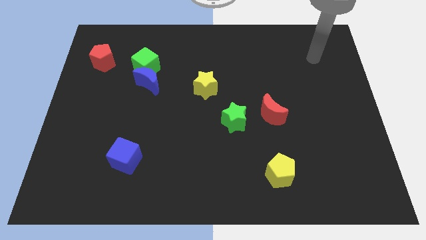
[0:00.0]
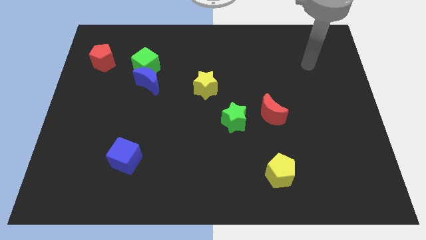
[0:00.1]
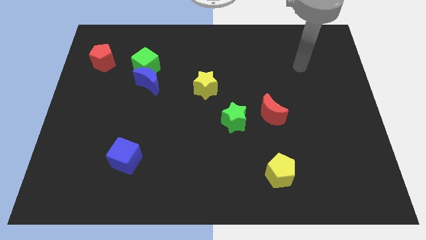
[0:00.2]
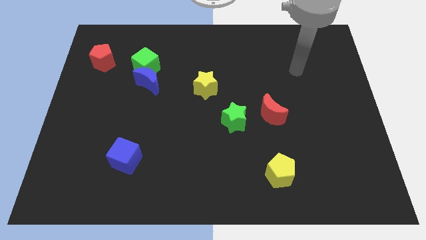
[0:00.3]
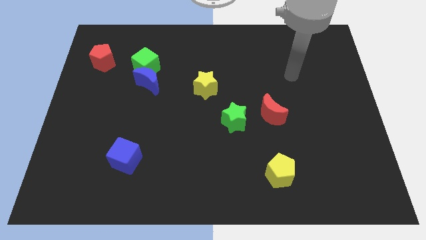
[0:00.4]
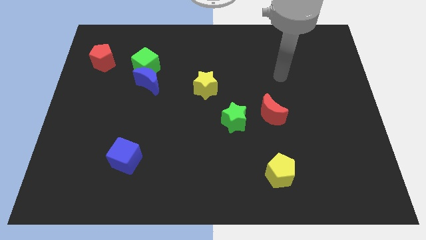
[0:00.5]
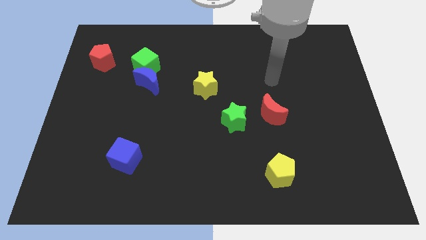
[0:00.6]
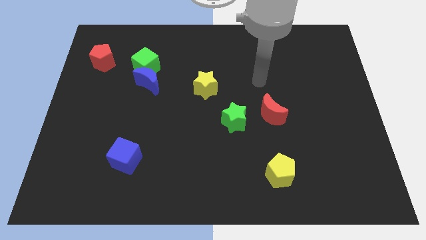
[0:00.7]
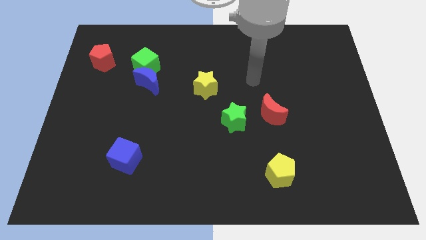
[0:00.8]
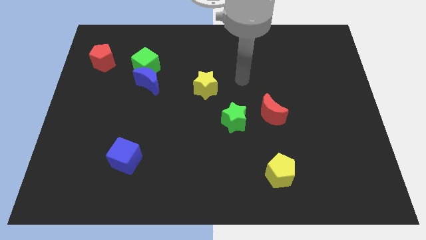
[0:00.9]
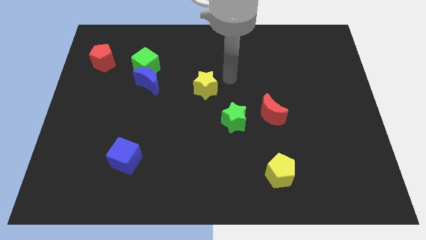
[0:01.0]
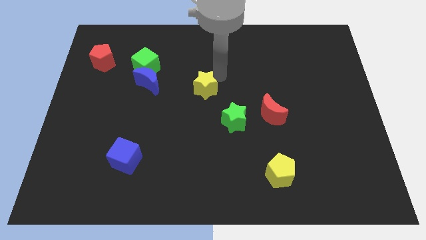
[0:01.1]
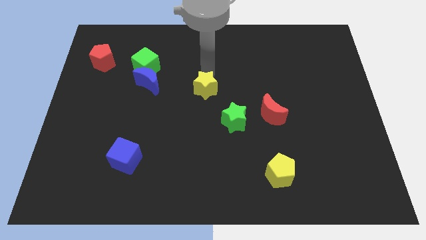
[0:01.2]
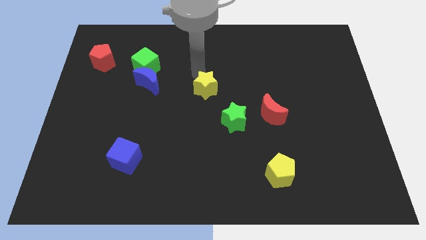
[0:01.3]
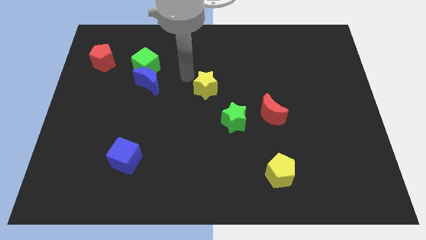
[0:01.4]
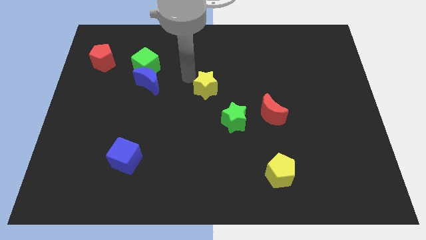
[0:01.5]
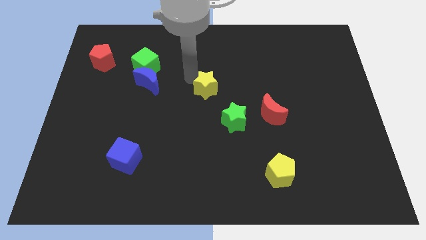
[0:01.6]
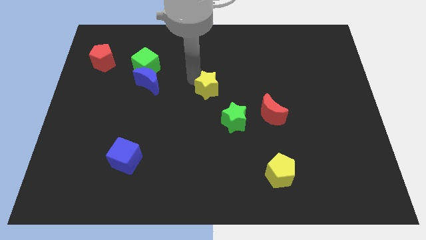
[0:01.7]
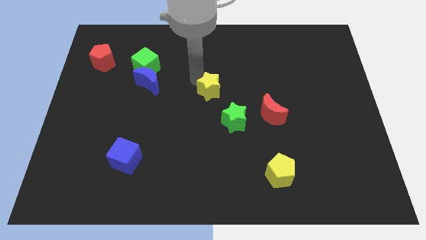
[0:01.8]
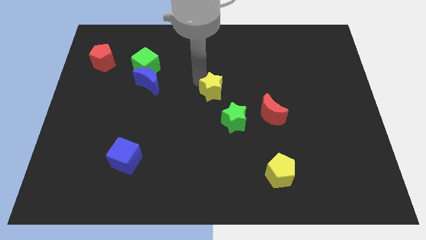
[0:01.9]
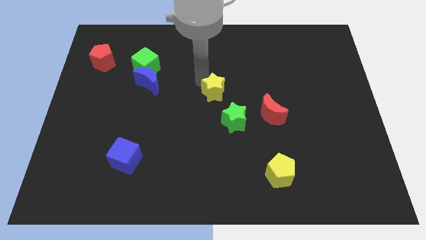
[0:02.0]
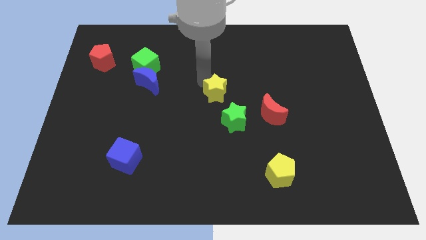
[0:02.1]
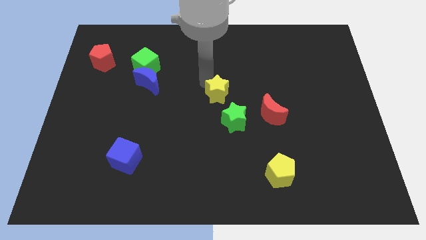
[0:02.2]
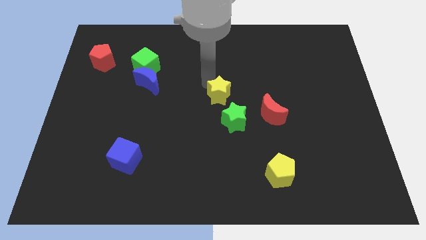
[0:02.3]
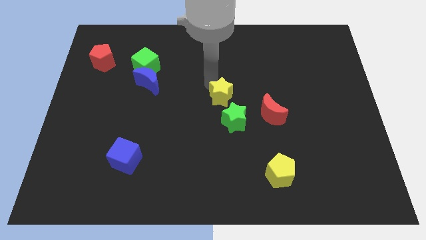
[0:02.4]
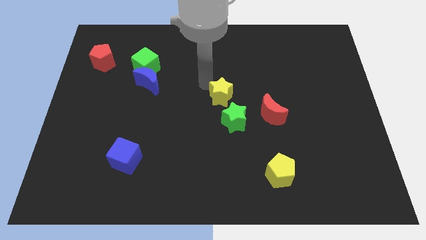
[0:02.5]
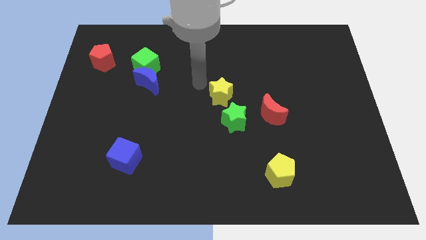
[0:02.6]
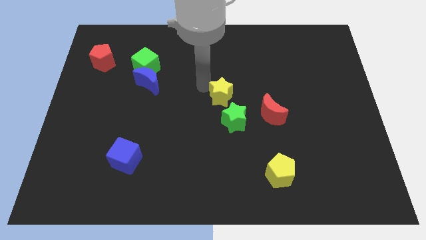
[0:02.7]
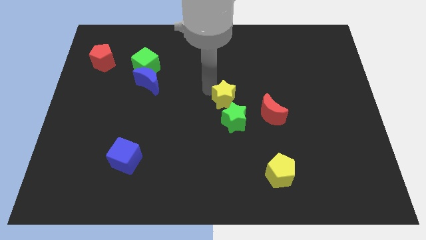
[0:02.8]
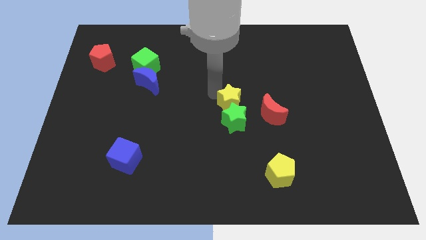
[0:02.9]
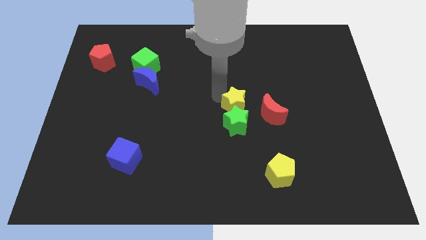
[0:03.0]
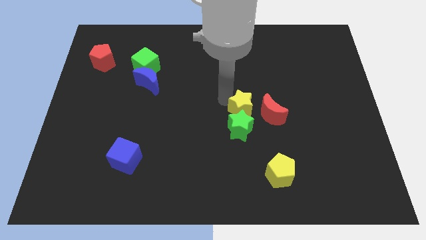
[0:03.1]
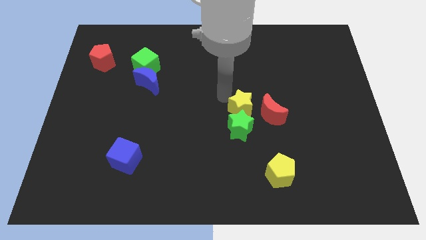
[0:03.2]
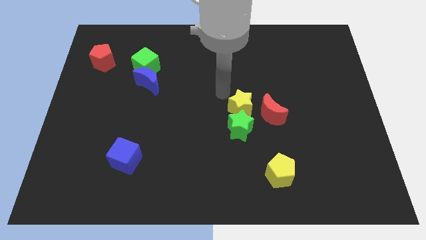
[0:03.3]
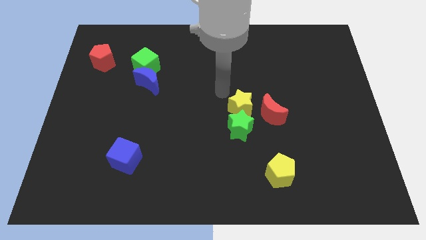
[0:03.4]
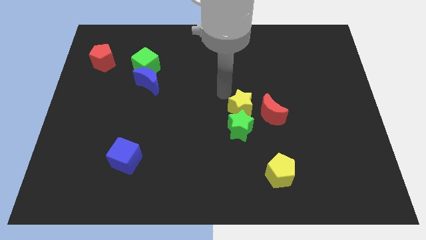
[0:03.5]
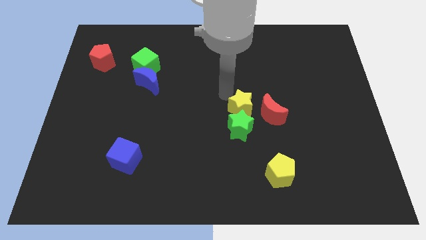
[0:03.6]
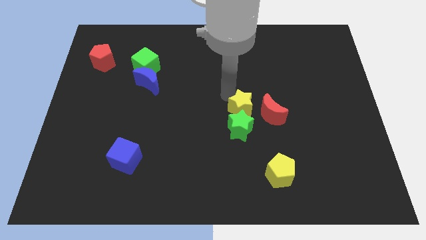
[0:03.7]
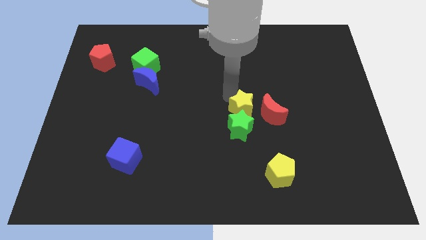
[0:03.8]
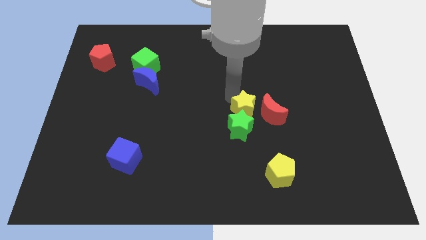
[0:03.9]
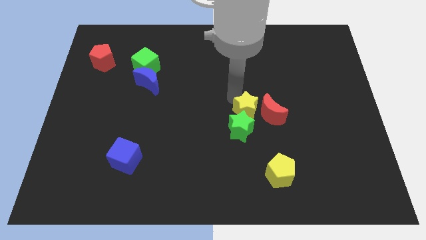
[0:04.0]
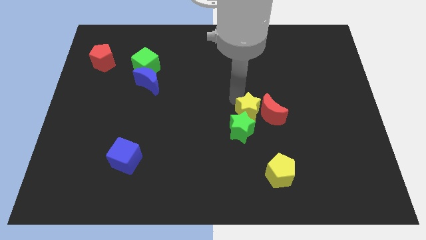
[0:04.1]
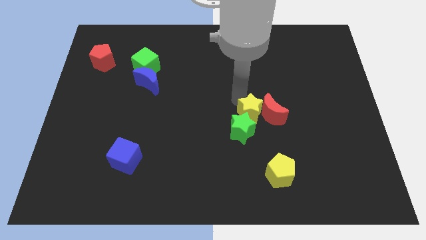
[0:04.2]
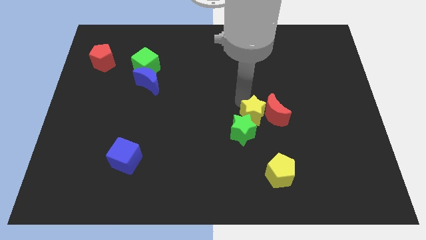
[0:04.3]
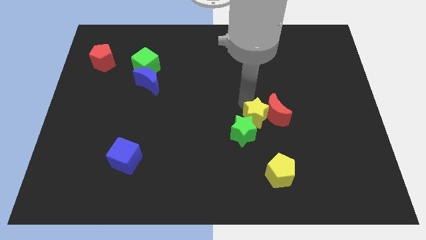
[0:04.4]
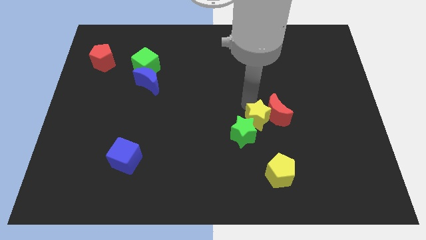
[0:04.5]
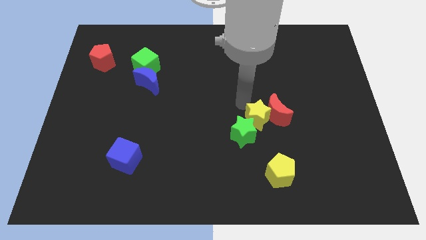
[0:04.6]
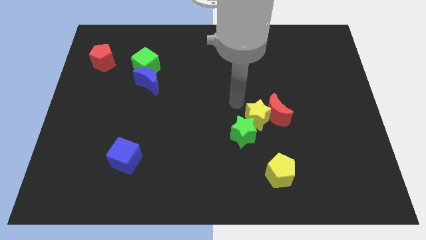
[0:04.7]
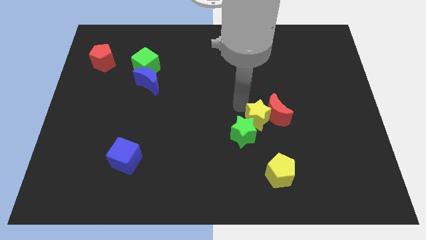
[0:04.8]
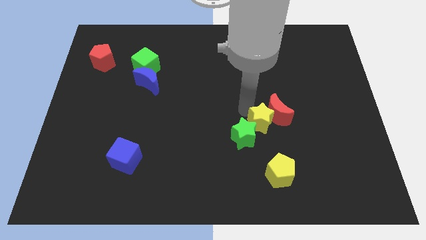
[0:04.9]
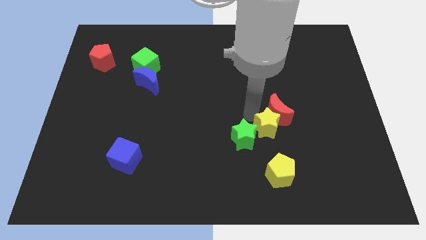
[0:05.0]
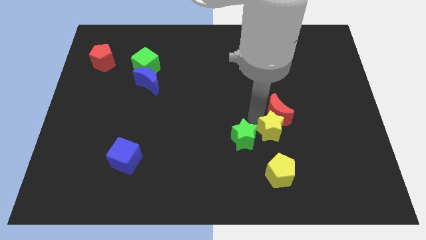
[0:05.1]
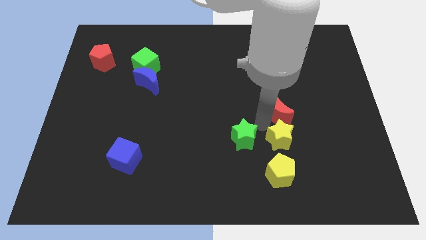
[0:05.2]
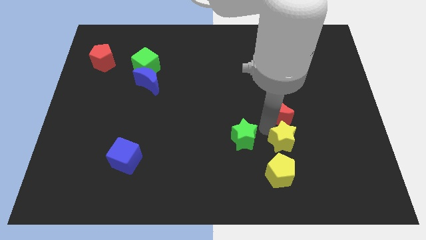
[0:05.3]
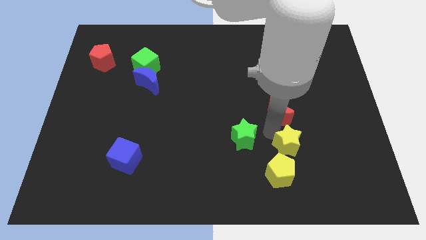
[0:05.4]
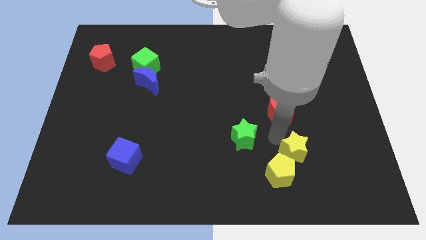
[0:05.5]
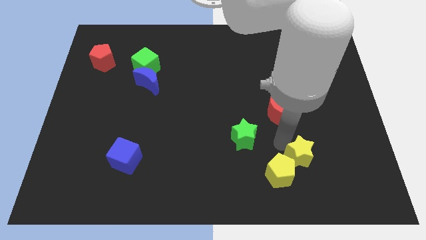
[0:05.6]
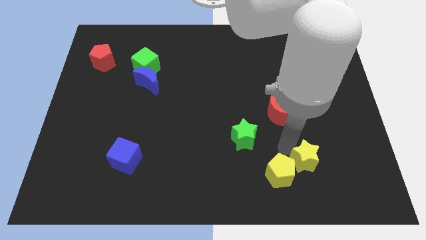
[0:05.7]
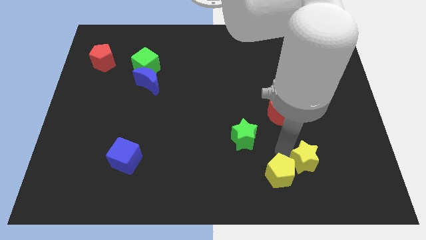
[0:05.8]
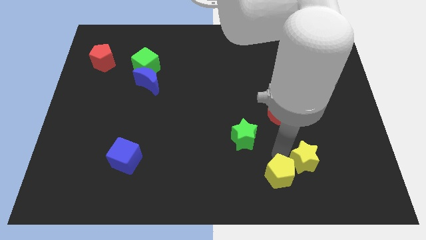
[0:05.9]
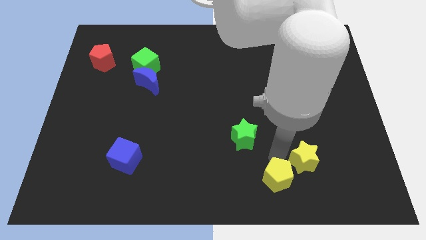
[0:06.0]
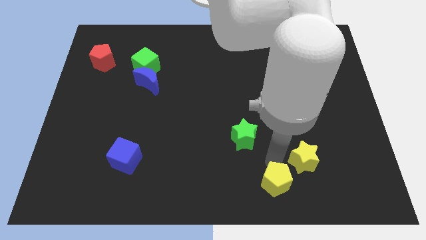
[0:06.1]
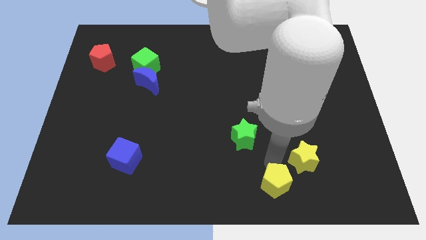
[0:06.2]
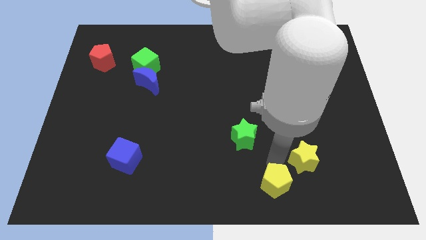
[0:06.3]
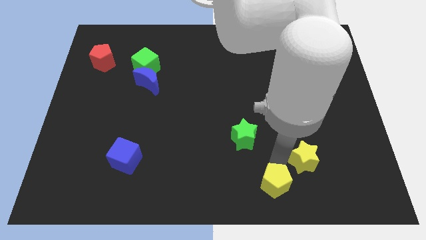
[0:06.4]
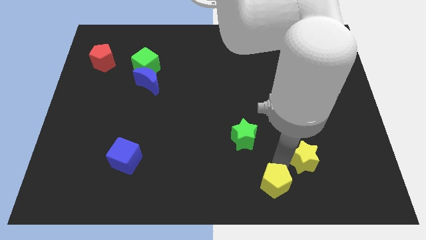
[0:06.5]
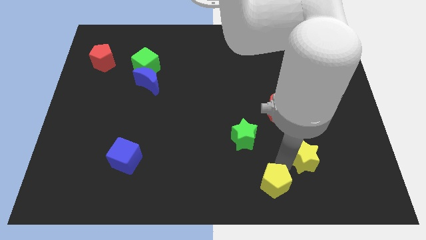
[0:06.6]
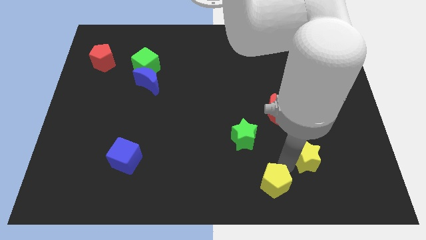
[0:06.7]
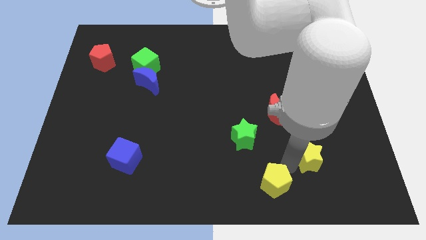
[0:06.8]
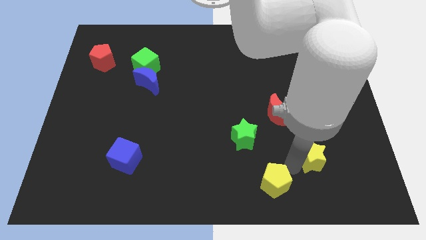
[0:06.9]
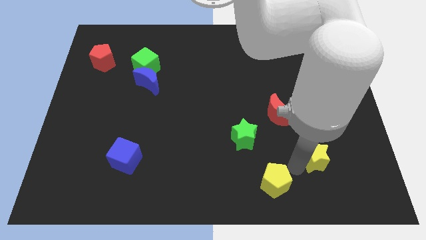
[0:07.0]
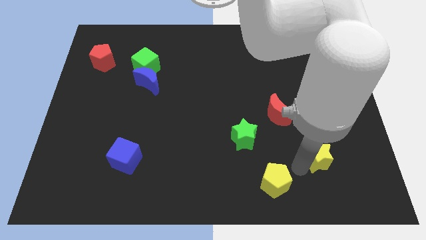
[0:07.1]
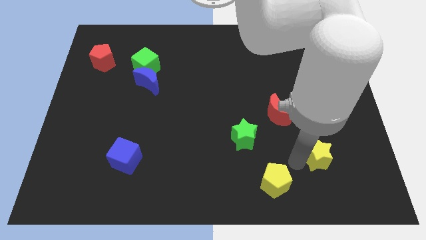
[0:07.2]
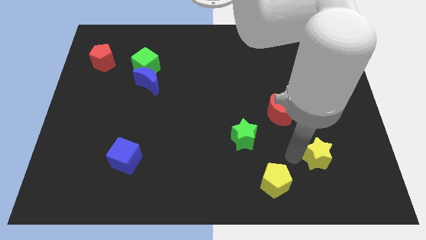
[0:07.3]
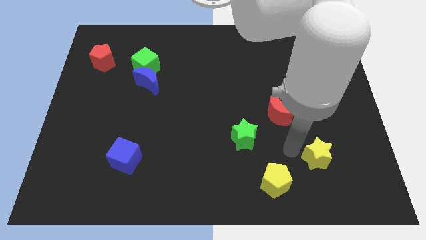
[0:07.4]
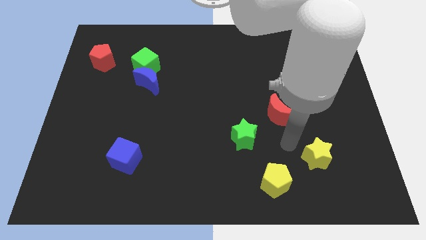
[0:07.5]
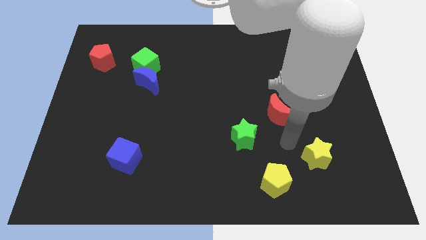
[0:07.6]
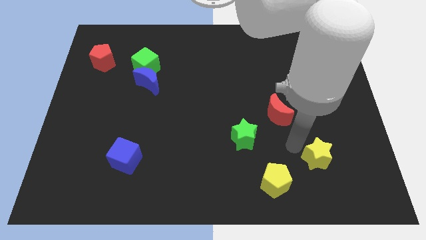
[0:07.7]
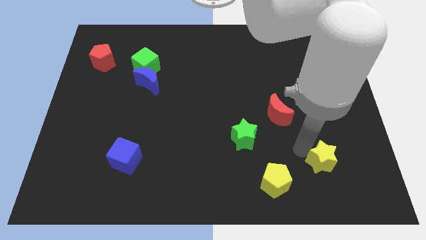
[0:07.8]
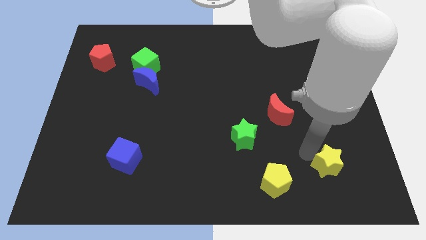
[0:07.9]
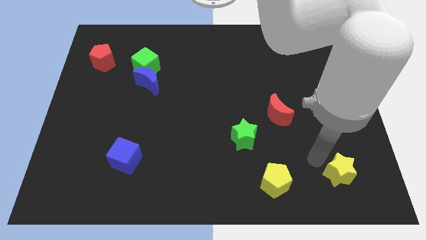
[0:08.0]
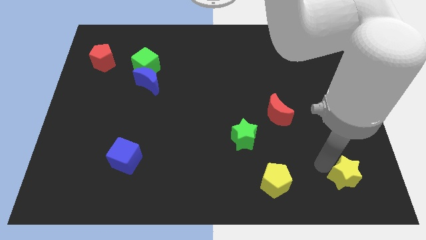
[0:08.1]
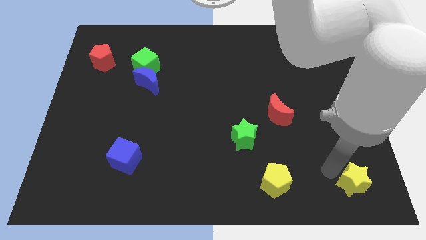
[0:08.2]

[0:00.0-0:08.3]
put the yellow star to the bottom right of the board
